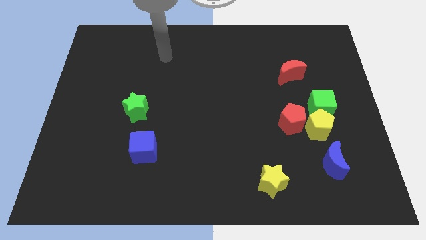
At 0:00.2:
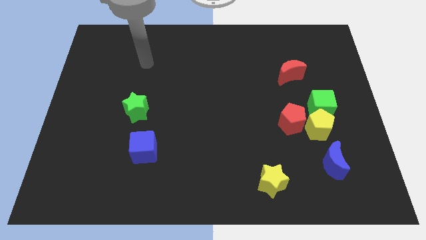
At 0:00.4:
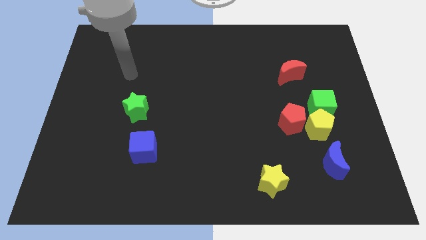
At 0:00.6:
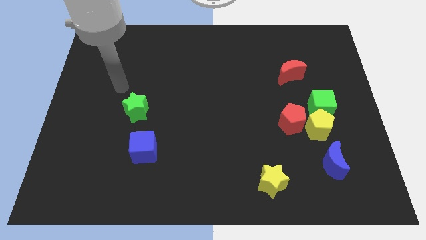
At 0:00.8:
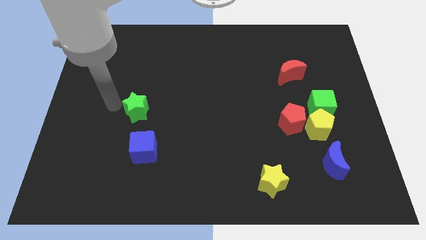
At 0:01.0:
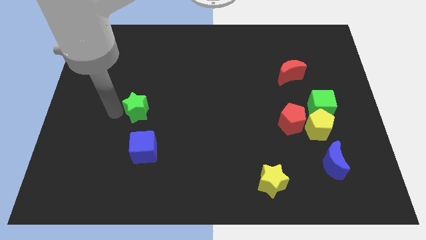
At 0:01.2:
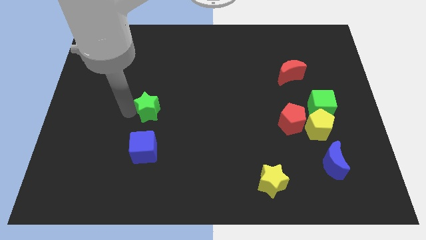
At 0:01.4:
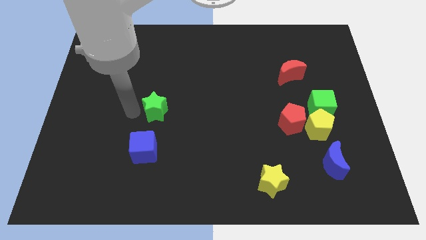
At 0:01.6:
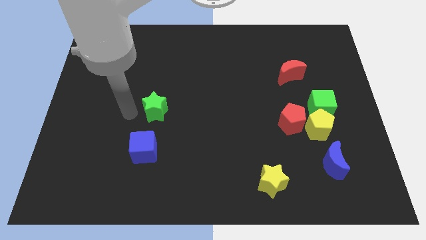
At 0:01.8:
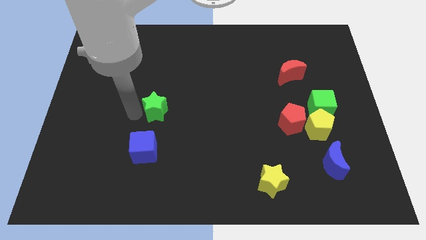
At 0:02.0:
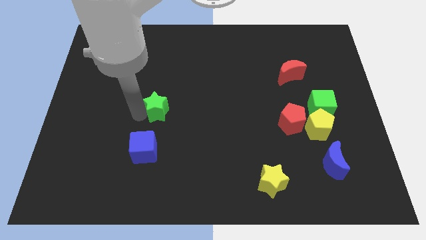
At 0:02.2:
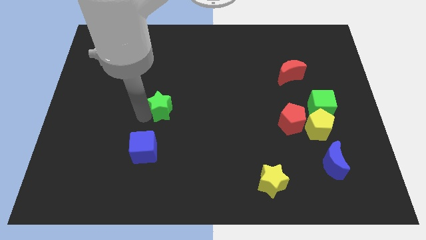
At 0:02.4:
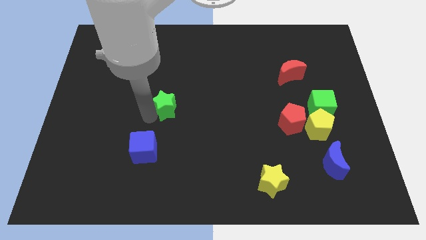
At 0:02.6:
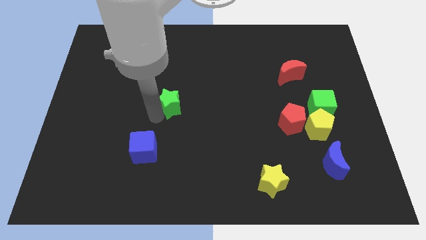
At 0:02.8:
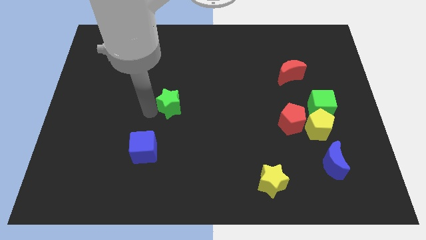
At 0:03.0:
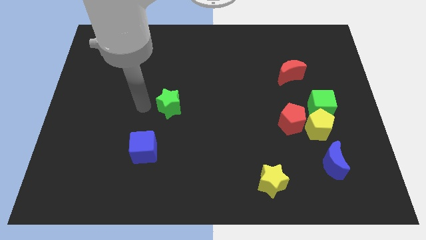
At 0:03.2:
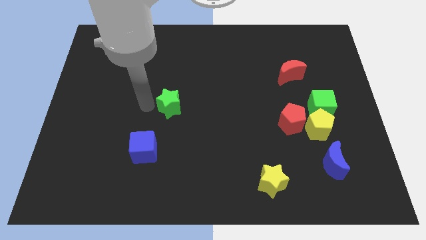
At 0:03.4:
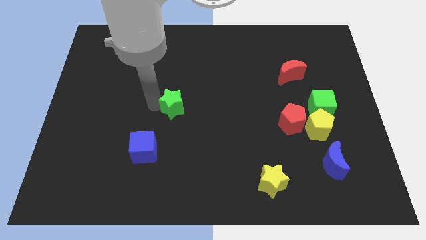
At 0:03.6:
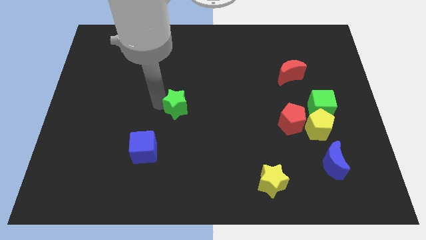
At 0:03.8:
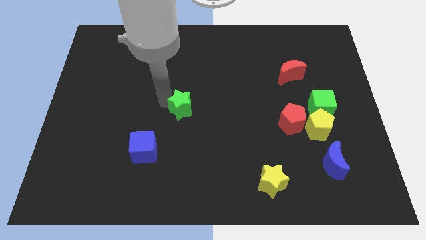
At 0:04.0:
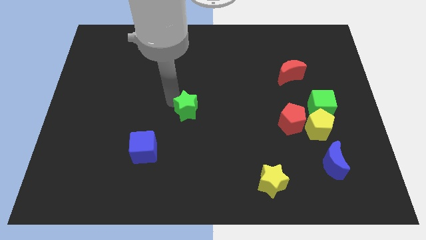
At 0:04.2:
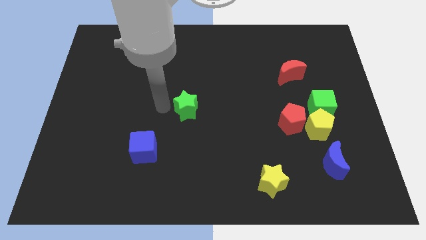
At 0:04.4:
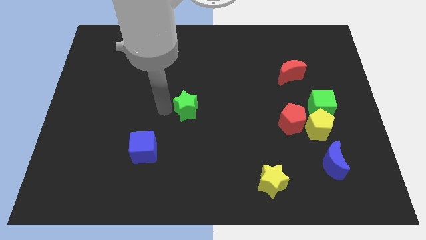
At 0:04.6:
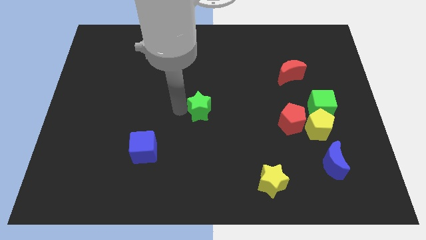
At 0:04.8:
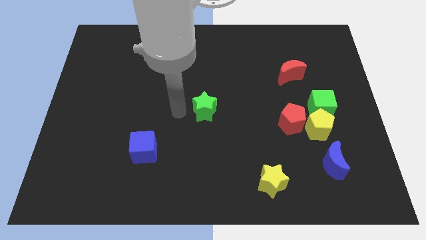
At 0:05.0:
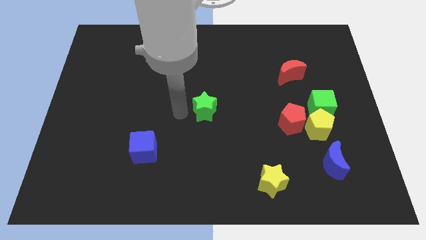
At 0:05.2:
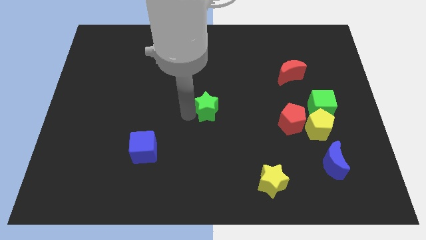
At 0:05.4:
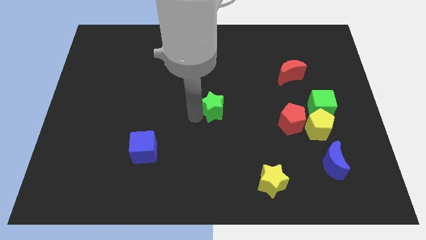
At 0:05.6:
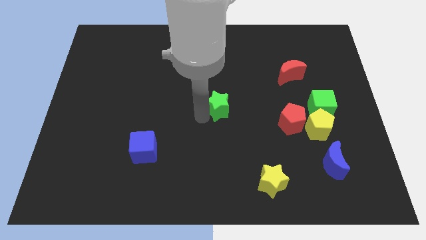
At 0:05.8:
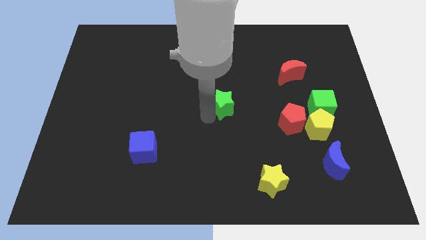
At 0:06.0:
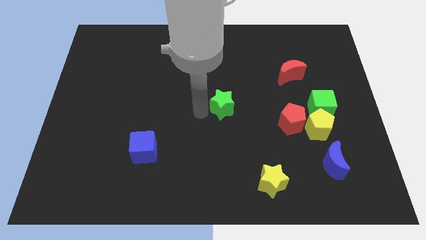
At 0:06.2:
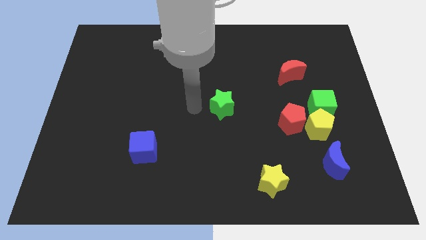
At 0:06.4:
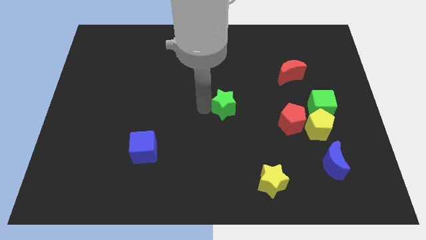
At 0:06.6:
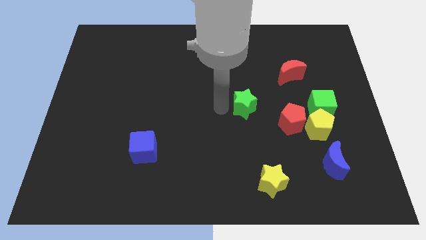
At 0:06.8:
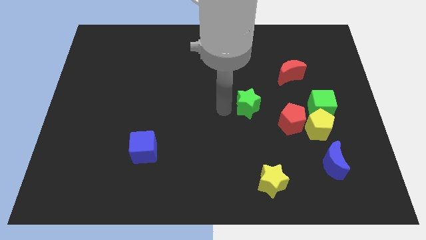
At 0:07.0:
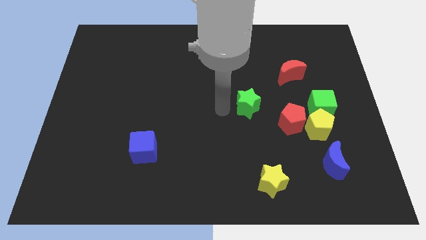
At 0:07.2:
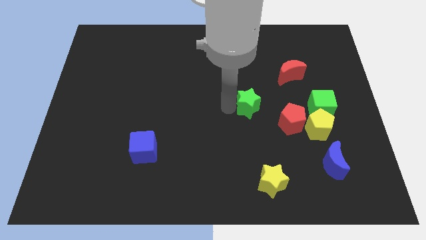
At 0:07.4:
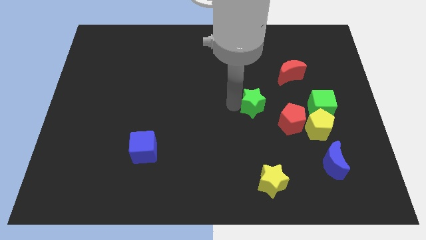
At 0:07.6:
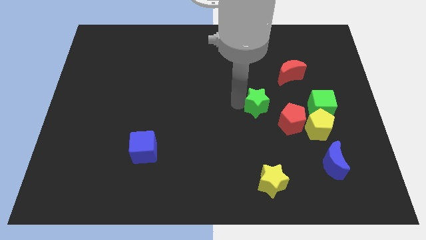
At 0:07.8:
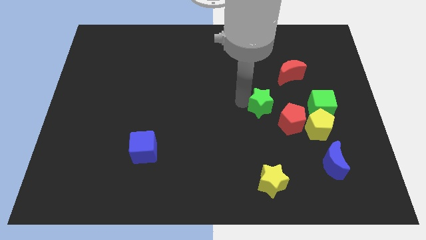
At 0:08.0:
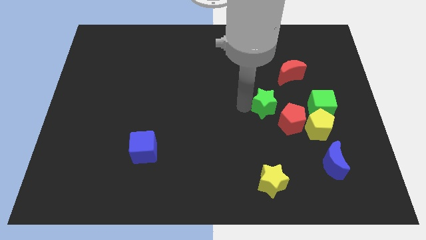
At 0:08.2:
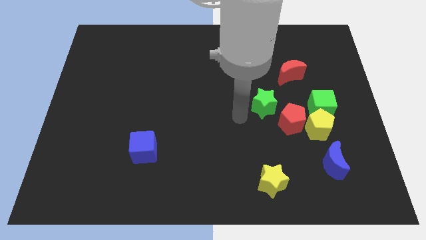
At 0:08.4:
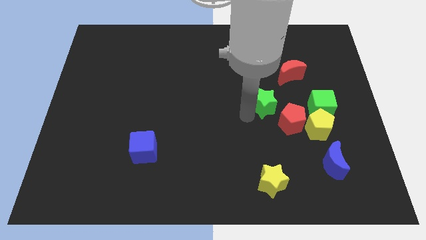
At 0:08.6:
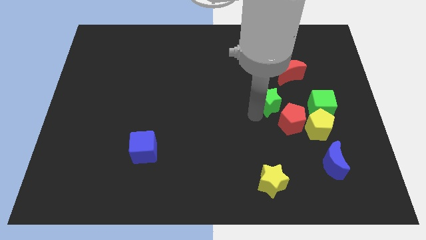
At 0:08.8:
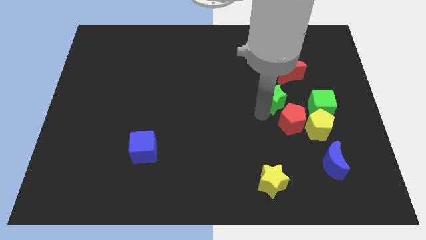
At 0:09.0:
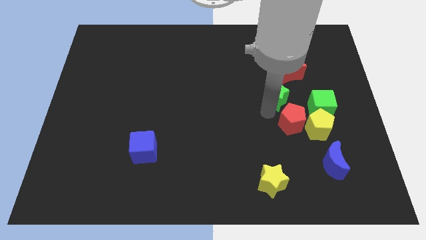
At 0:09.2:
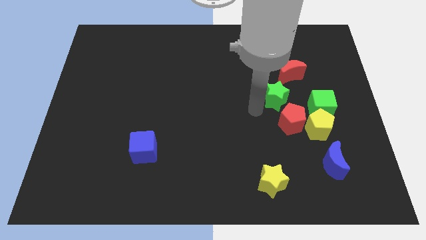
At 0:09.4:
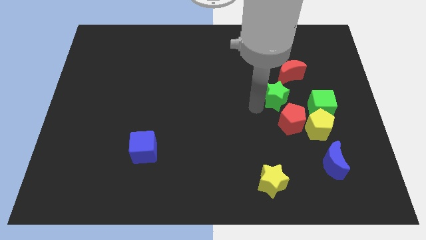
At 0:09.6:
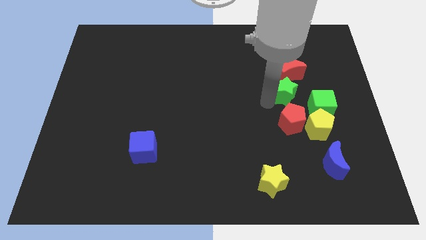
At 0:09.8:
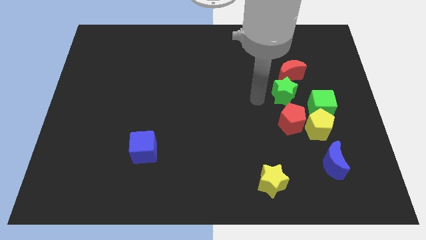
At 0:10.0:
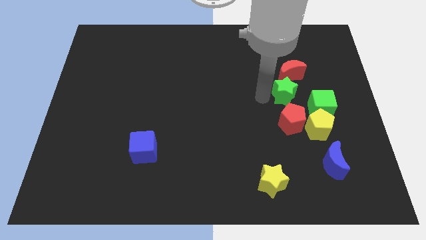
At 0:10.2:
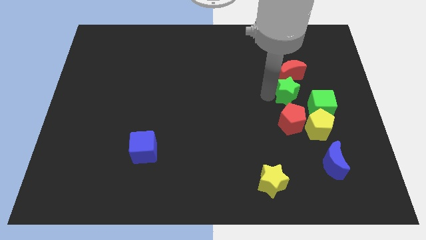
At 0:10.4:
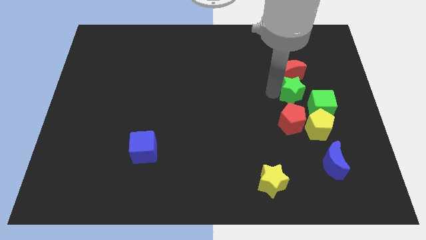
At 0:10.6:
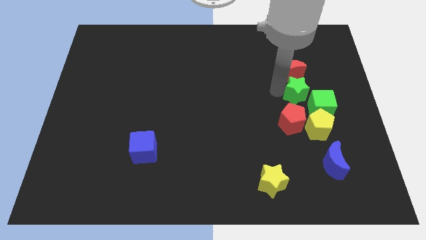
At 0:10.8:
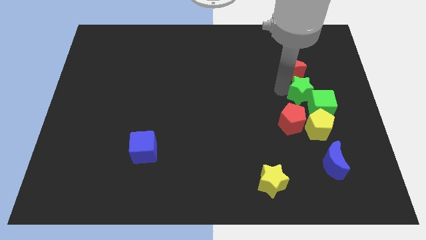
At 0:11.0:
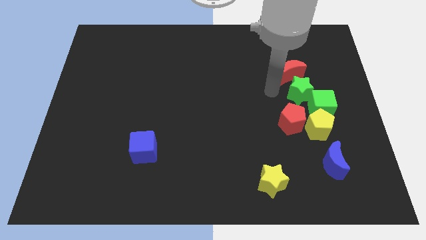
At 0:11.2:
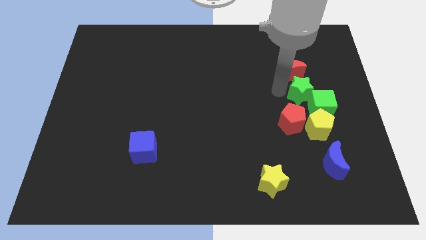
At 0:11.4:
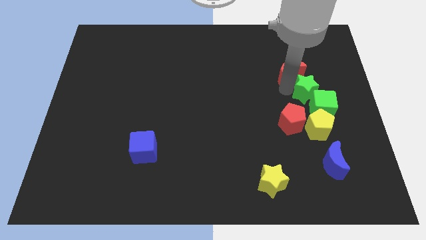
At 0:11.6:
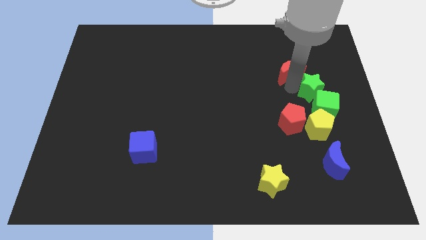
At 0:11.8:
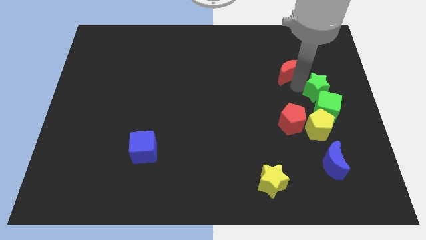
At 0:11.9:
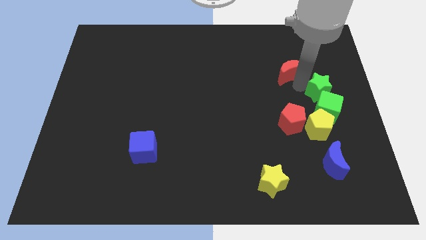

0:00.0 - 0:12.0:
slide the green star to the right side

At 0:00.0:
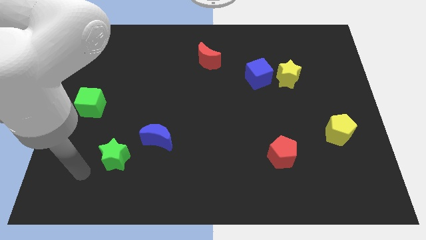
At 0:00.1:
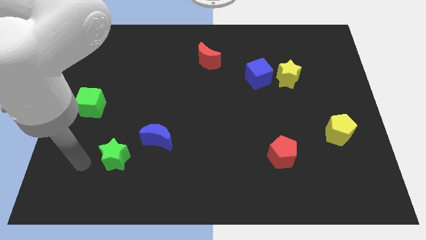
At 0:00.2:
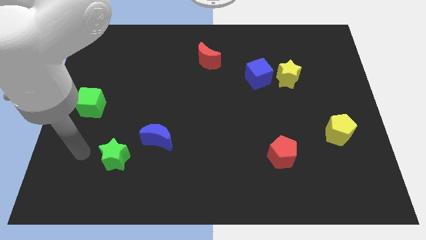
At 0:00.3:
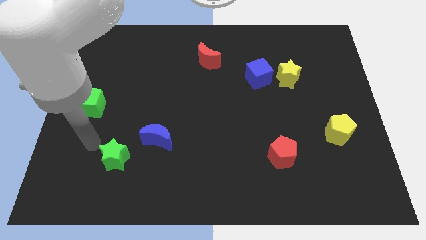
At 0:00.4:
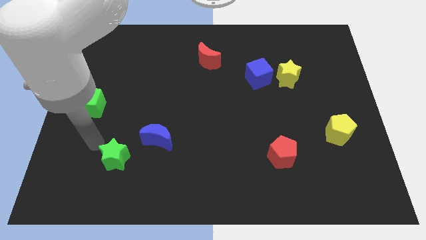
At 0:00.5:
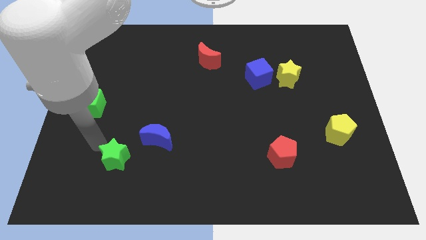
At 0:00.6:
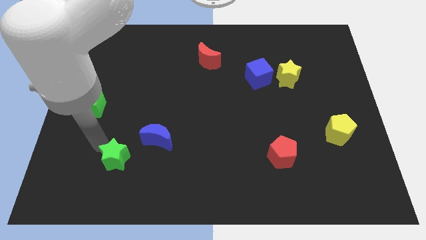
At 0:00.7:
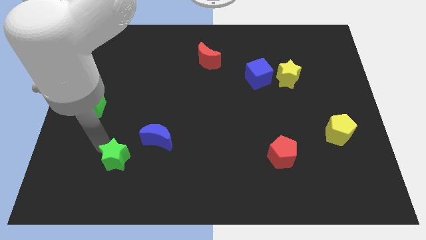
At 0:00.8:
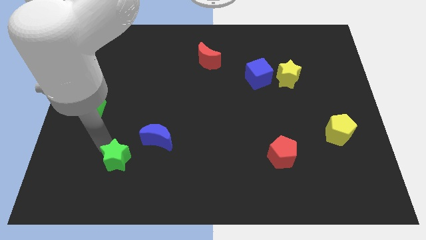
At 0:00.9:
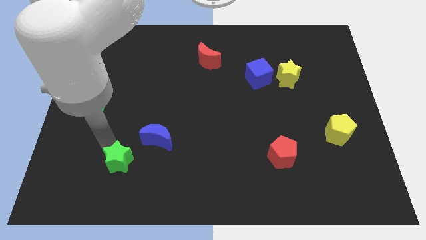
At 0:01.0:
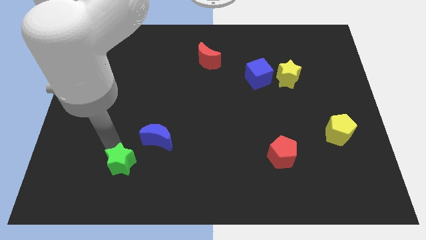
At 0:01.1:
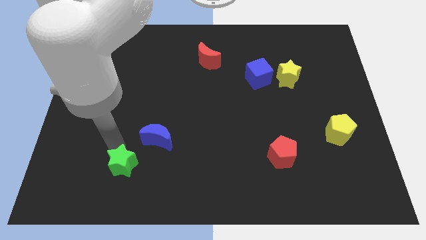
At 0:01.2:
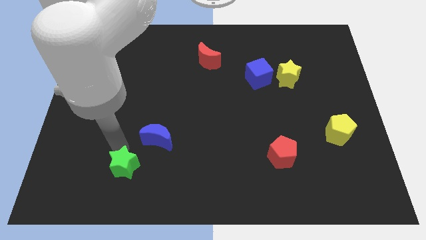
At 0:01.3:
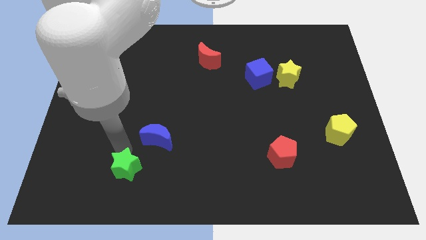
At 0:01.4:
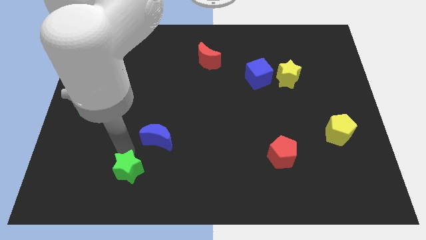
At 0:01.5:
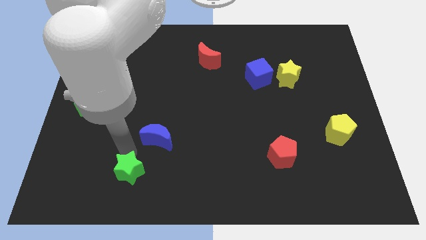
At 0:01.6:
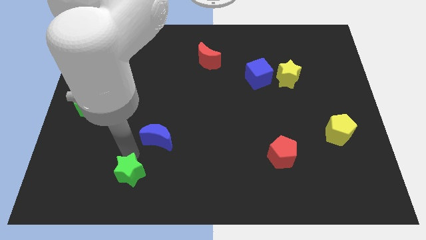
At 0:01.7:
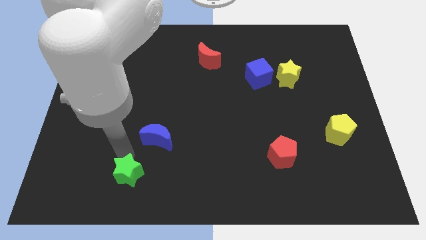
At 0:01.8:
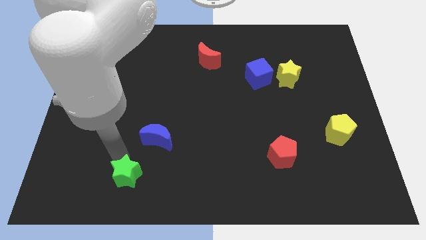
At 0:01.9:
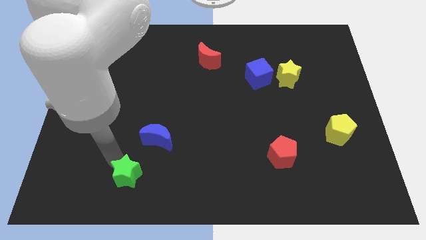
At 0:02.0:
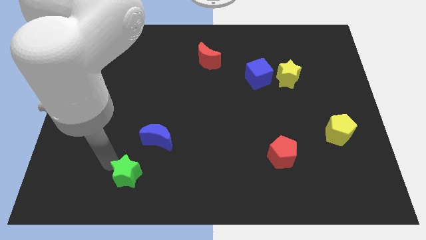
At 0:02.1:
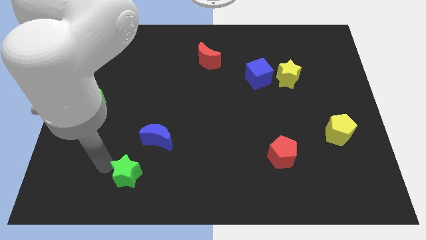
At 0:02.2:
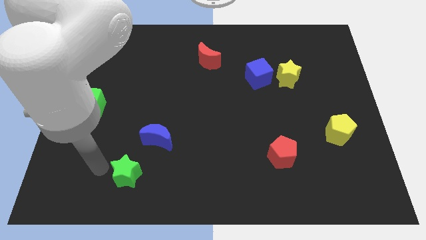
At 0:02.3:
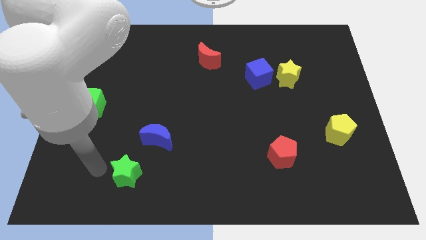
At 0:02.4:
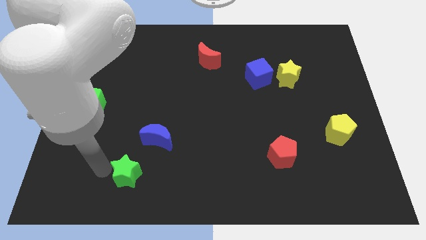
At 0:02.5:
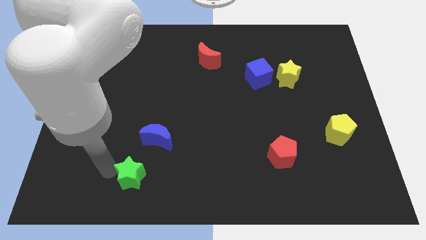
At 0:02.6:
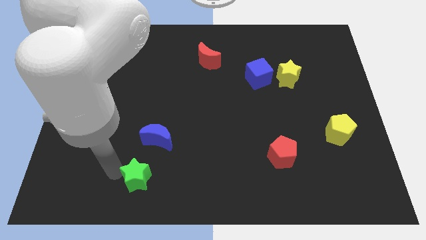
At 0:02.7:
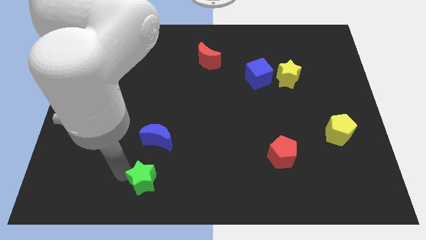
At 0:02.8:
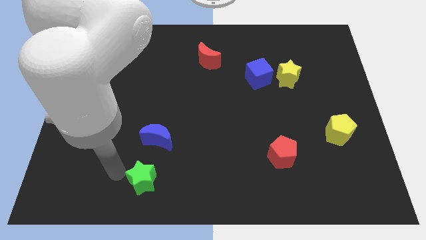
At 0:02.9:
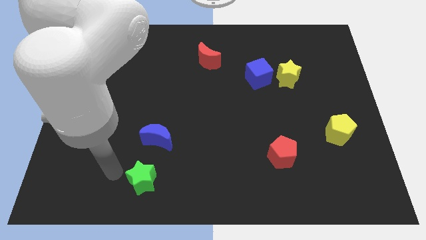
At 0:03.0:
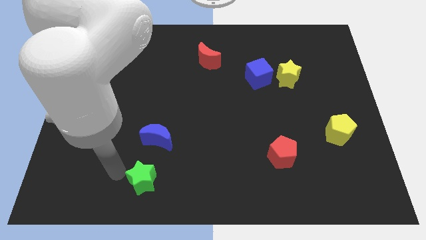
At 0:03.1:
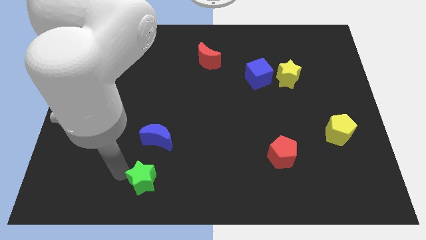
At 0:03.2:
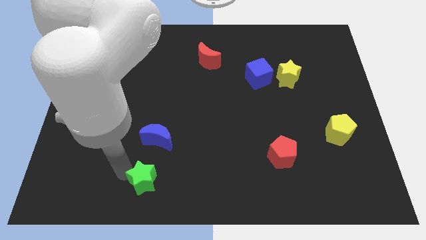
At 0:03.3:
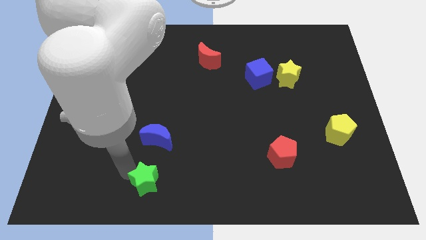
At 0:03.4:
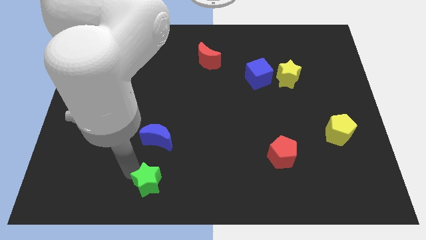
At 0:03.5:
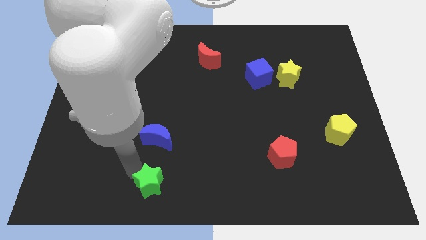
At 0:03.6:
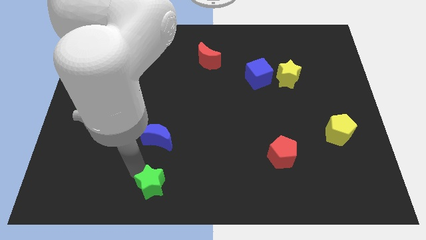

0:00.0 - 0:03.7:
put the green star to the bottom
